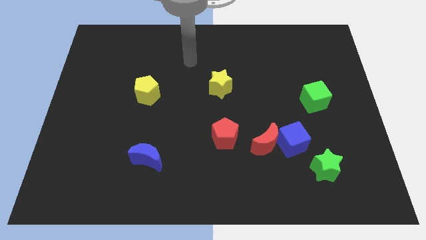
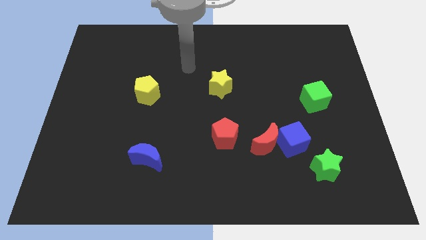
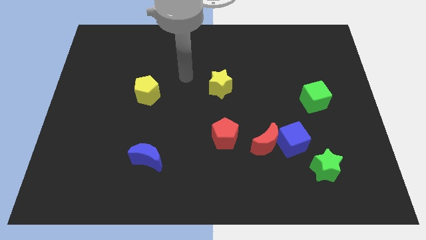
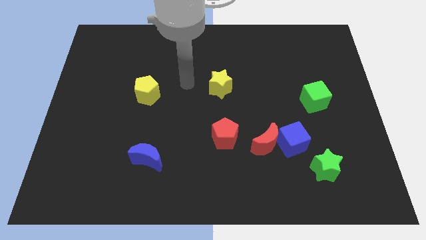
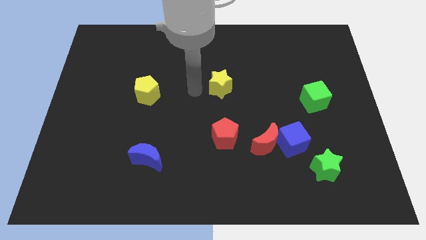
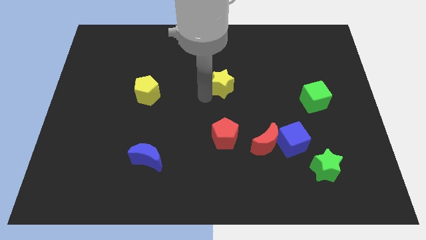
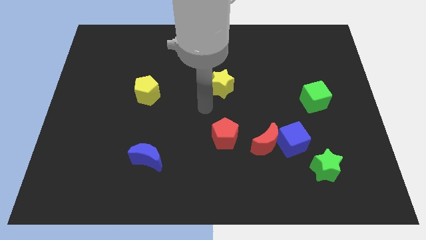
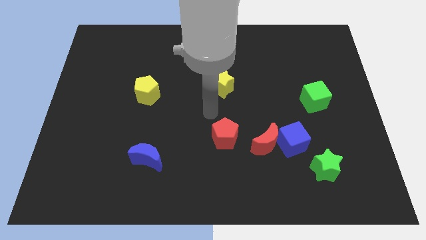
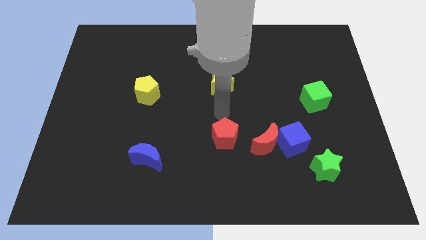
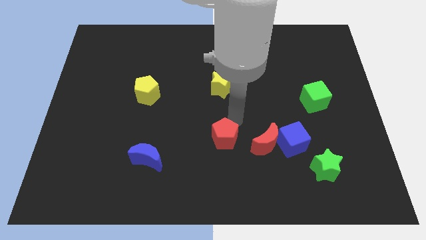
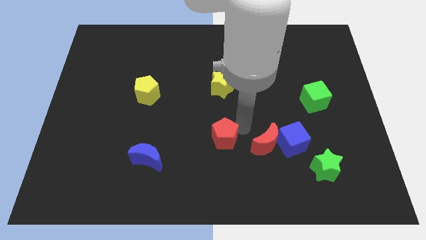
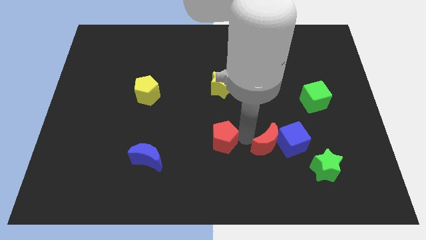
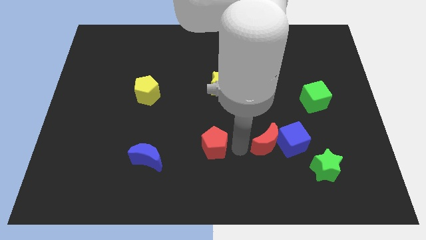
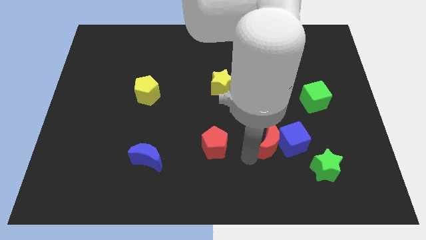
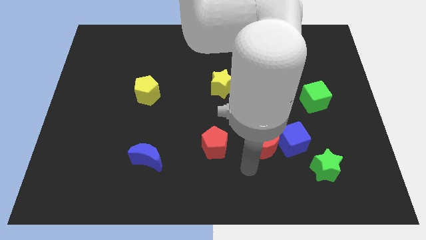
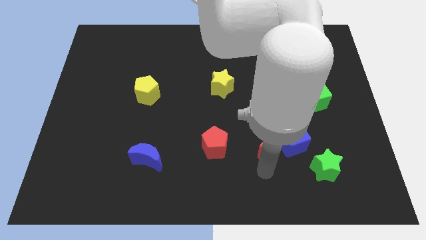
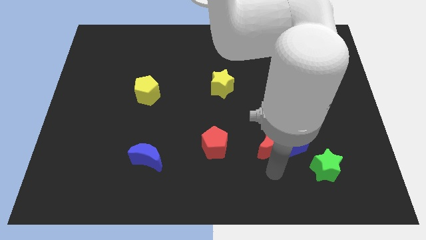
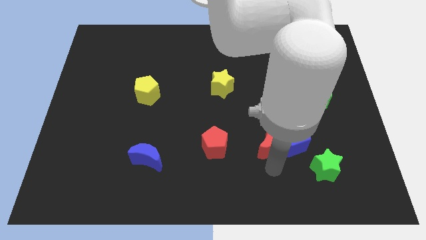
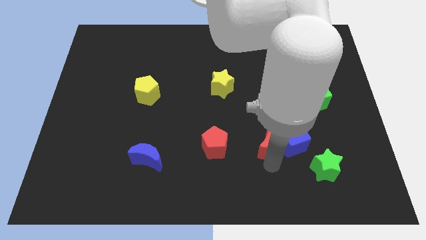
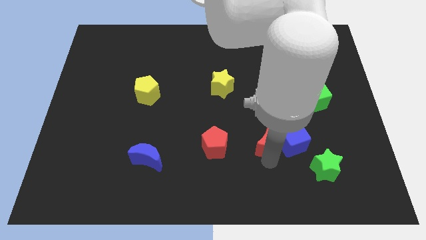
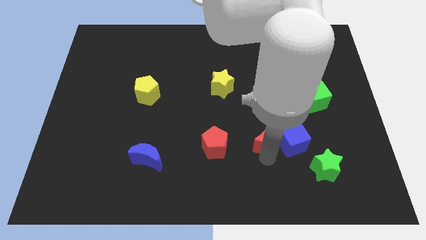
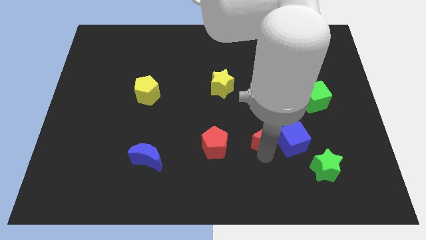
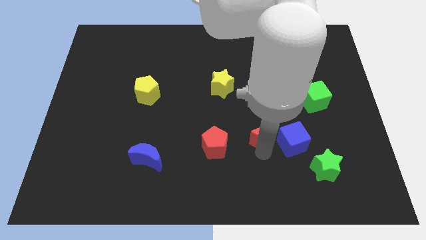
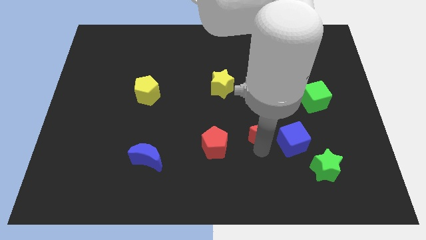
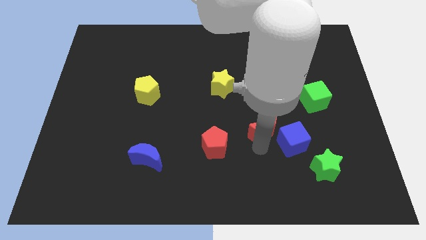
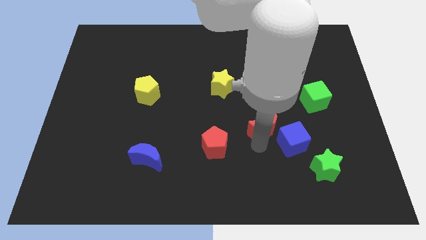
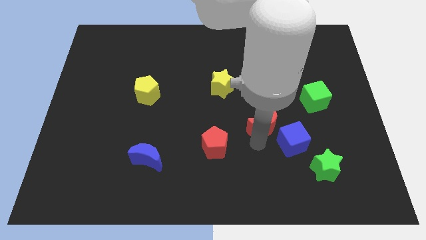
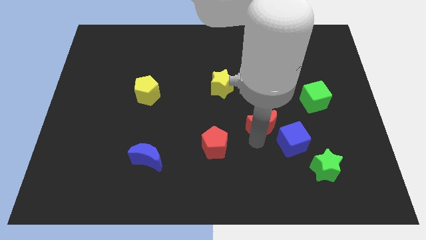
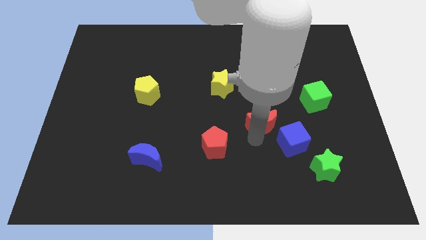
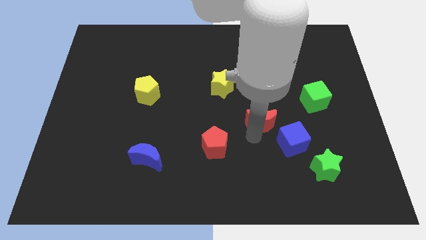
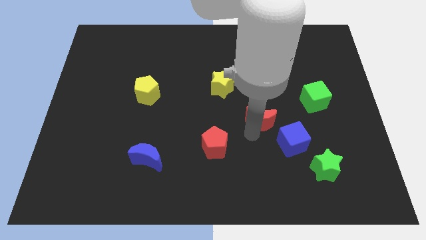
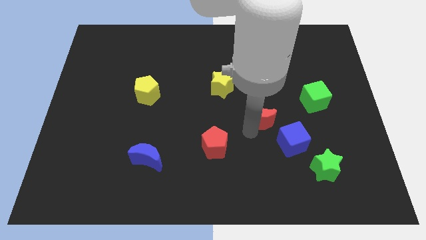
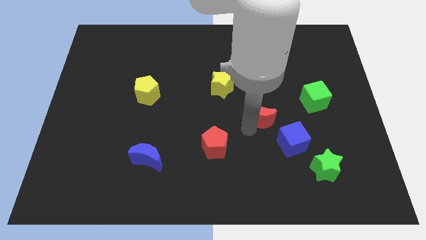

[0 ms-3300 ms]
slightly move the red moon up

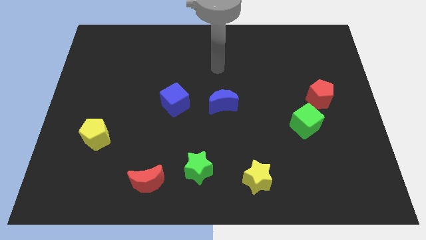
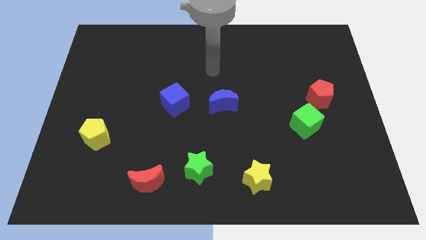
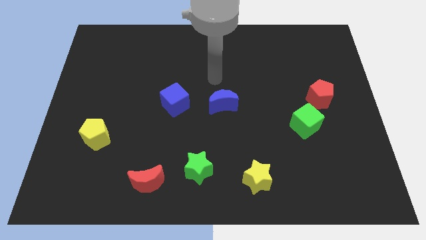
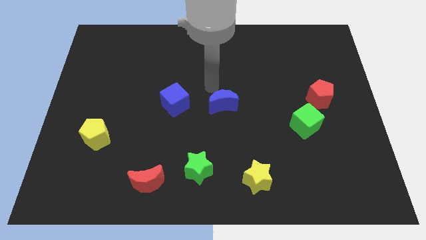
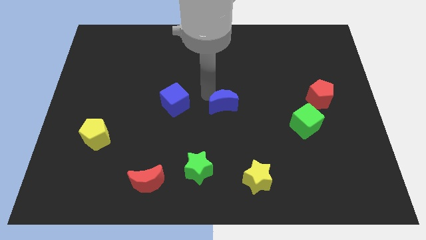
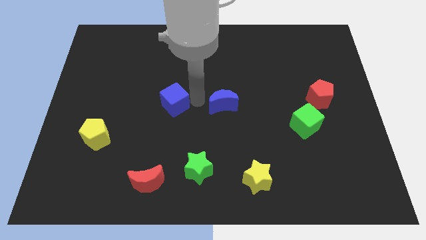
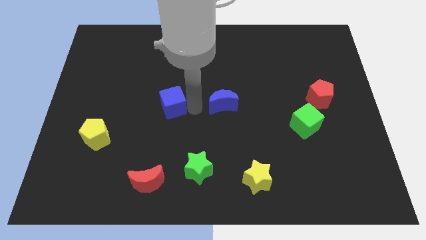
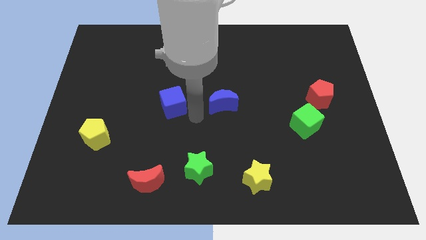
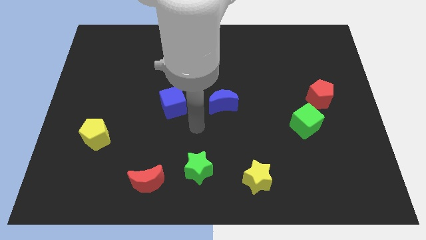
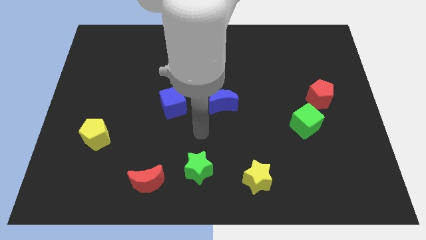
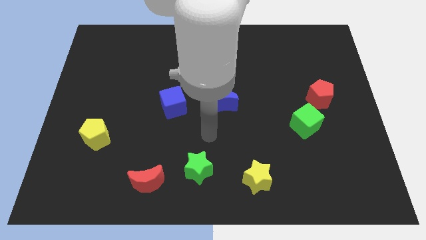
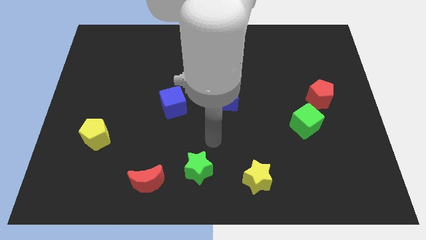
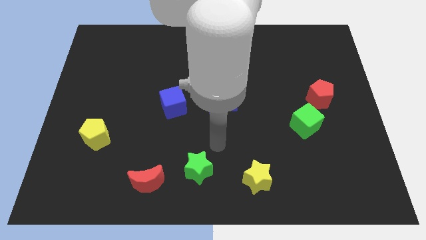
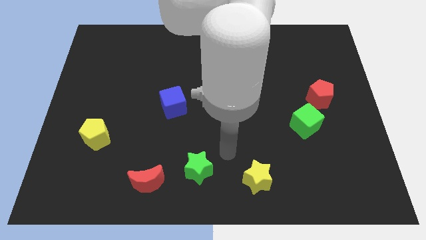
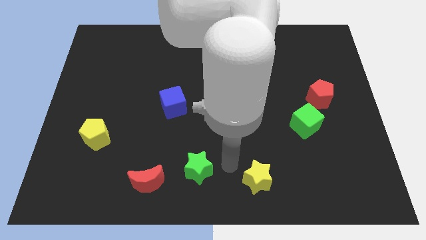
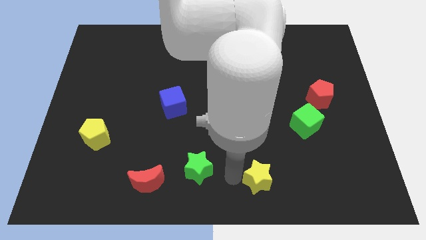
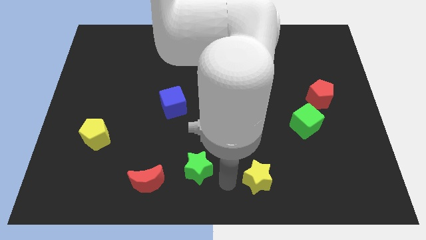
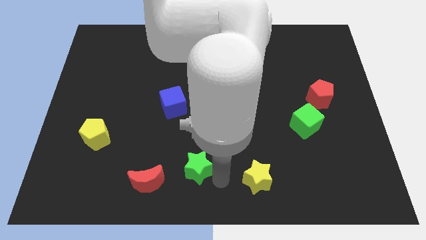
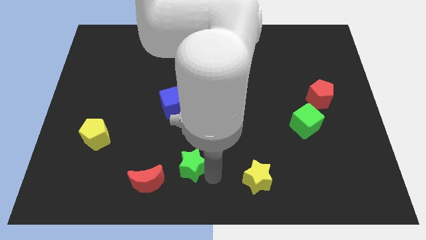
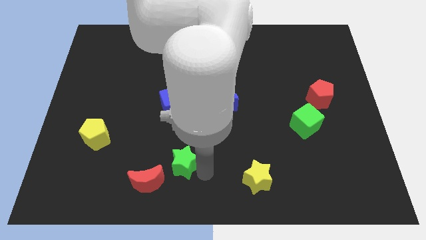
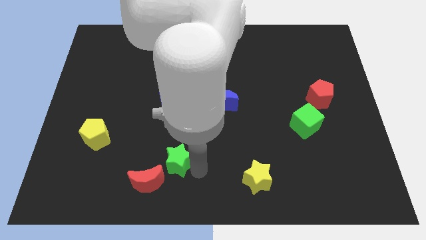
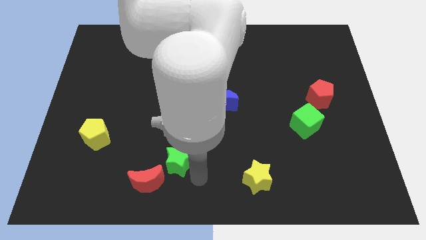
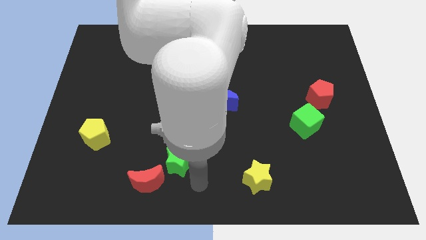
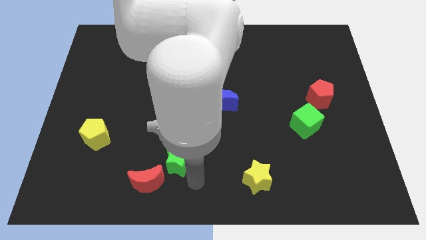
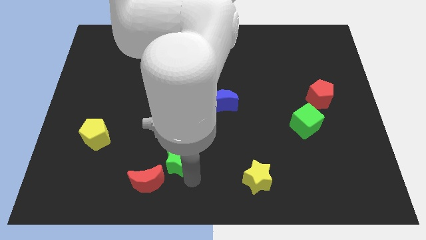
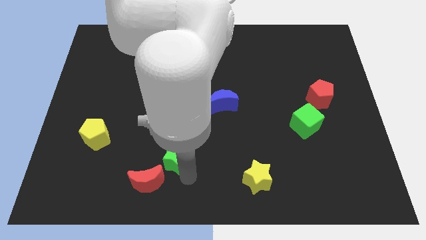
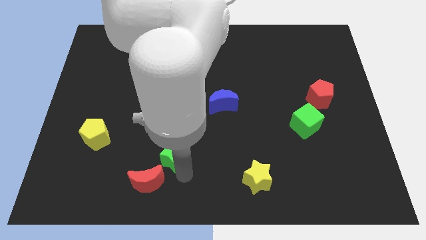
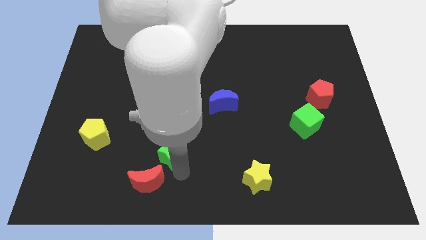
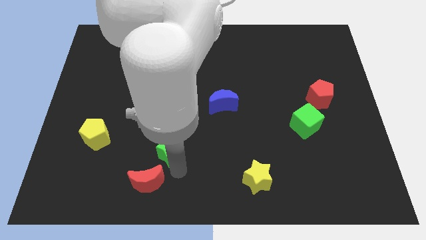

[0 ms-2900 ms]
slightly push the green star upwards and left diagonally

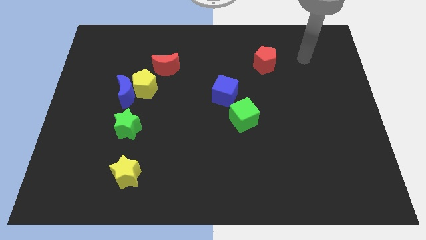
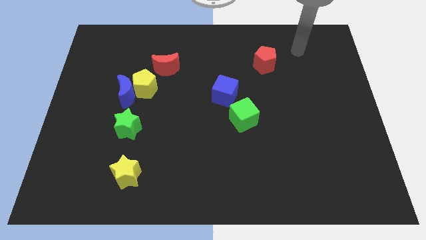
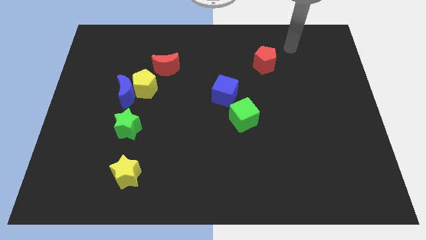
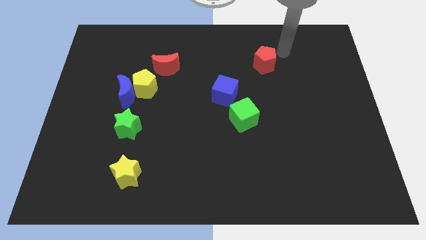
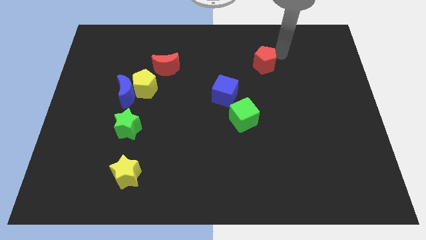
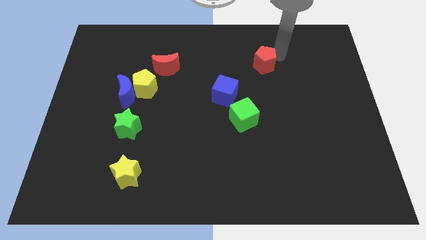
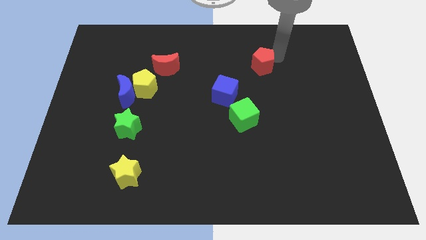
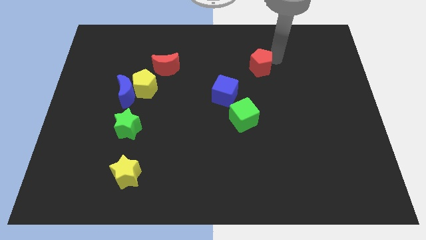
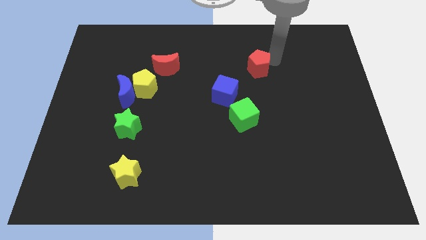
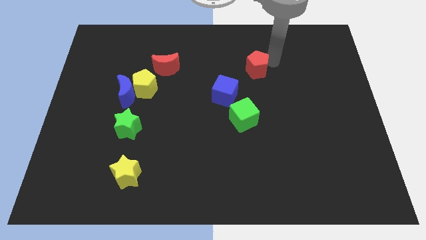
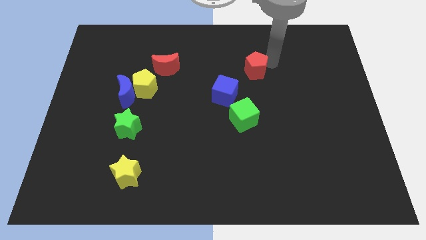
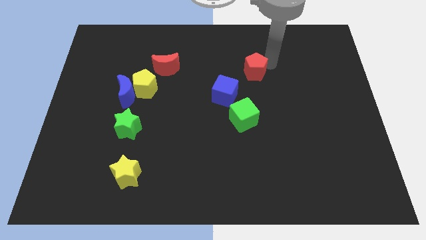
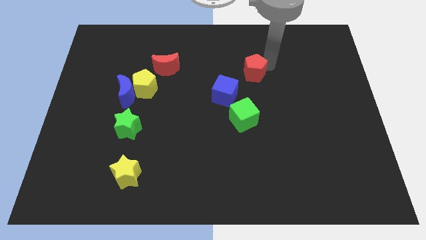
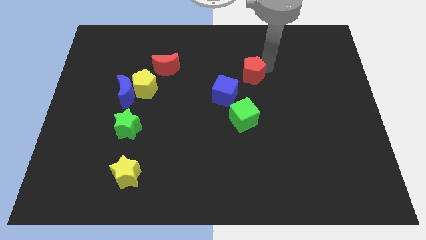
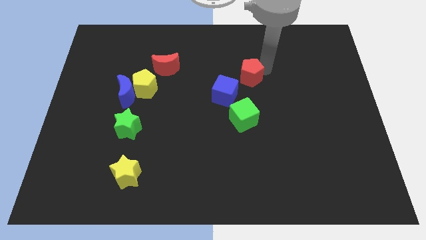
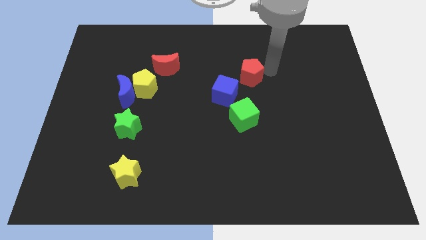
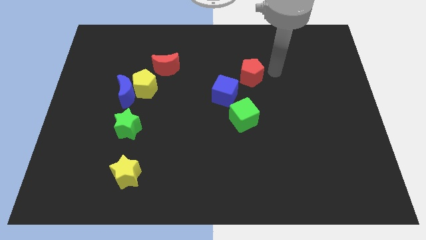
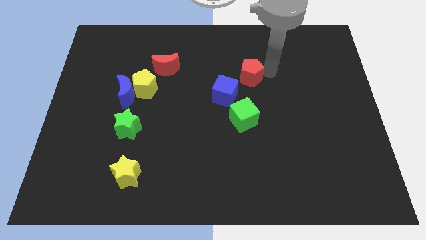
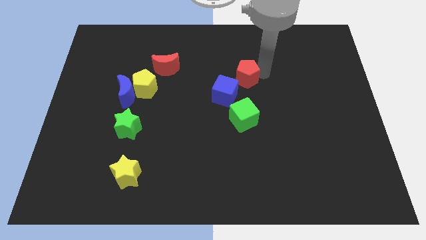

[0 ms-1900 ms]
slightly push the red pentagon downwards and then left
